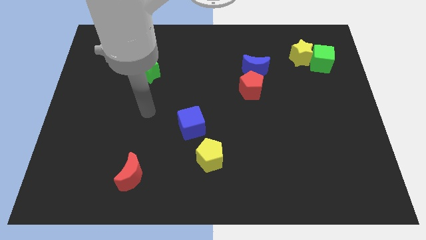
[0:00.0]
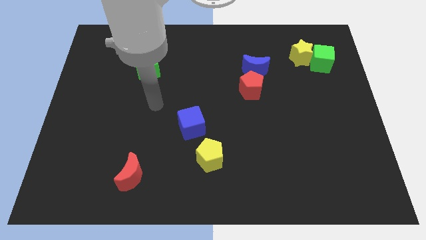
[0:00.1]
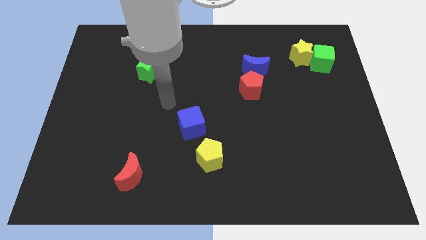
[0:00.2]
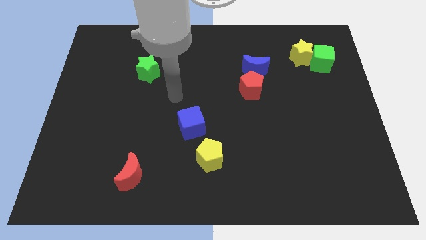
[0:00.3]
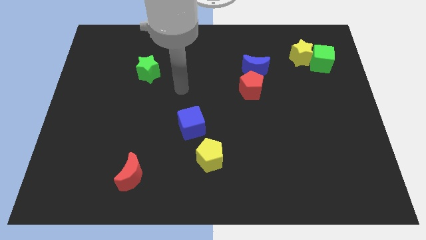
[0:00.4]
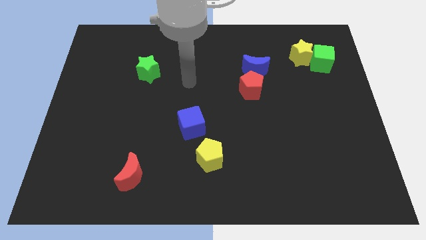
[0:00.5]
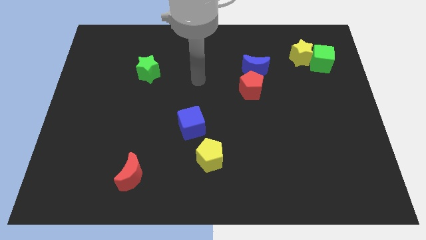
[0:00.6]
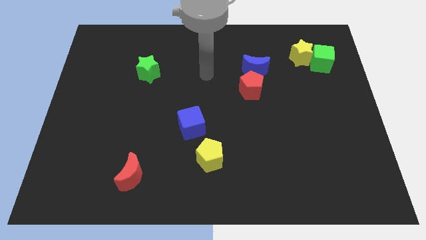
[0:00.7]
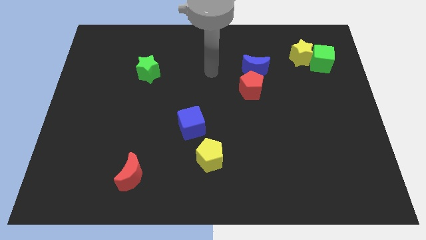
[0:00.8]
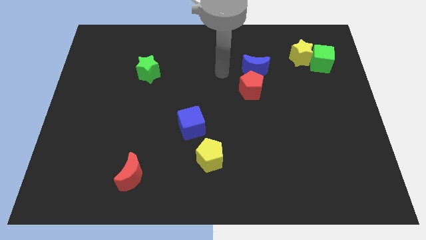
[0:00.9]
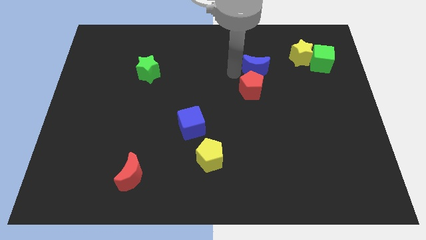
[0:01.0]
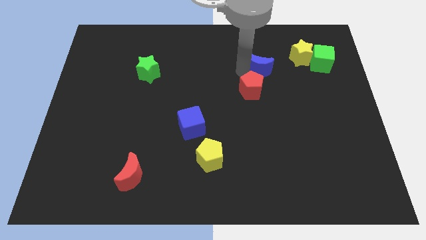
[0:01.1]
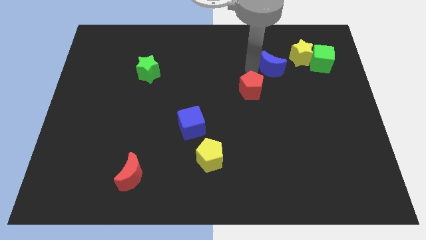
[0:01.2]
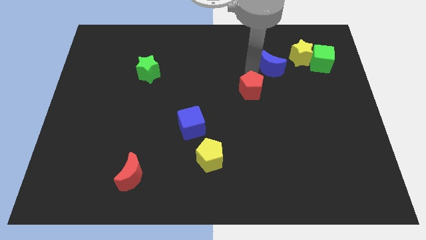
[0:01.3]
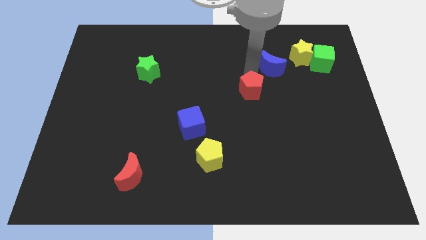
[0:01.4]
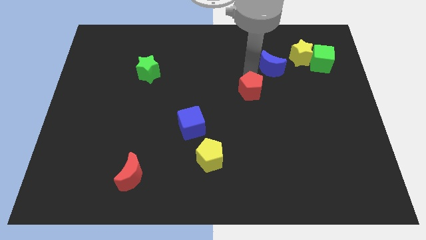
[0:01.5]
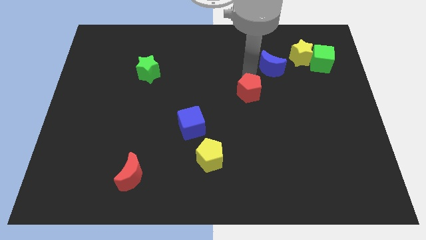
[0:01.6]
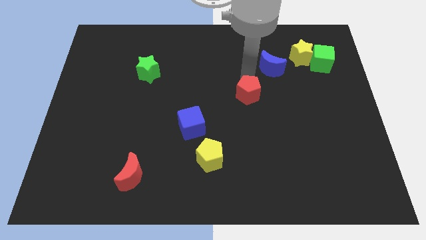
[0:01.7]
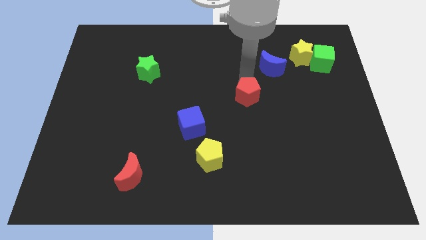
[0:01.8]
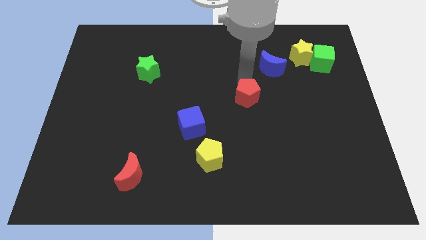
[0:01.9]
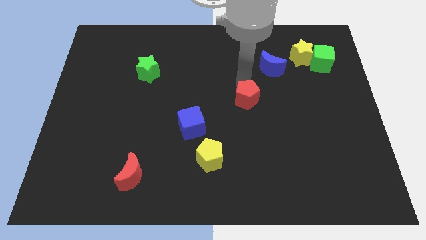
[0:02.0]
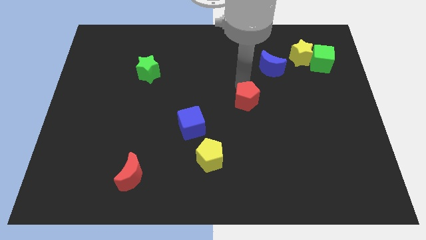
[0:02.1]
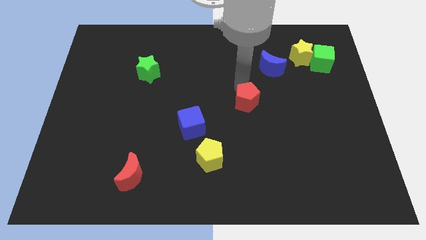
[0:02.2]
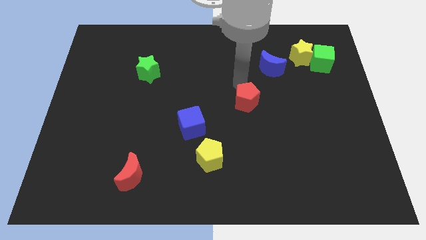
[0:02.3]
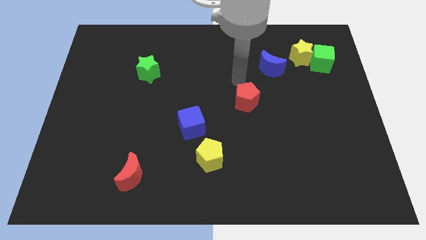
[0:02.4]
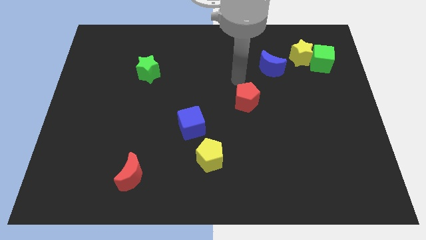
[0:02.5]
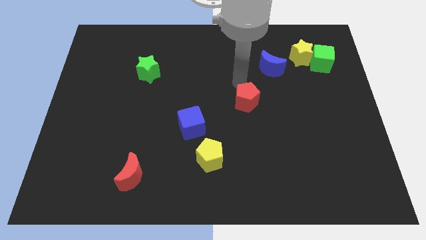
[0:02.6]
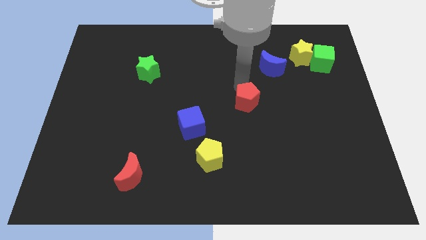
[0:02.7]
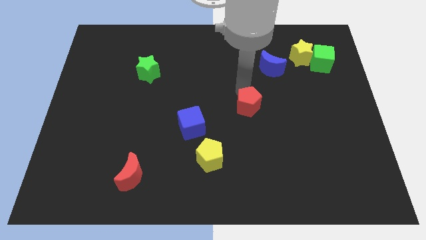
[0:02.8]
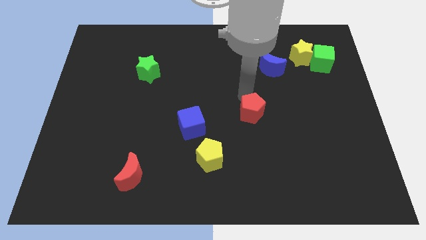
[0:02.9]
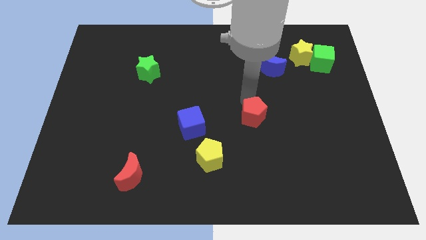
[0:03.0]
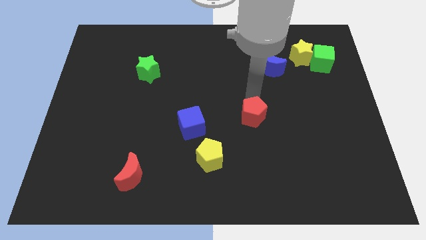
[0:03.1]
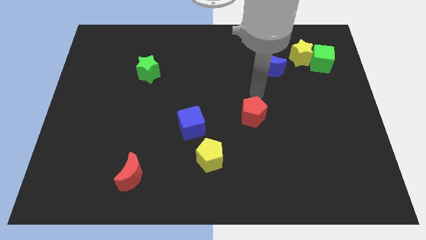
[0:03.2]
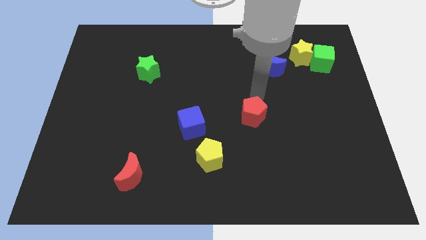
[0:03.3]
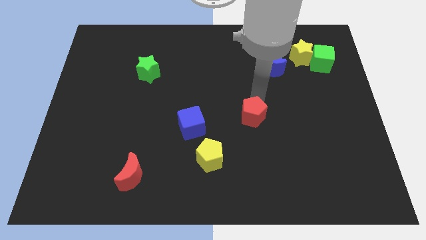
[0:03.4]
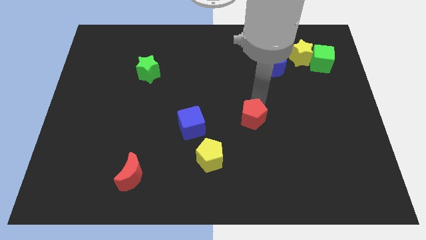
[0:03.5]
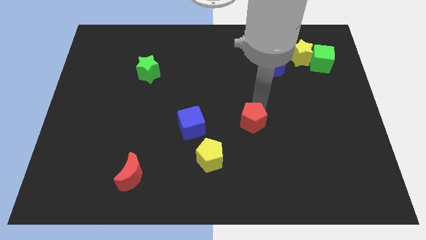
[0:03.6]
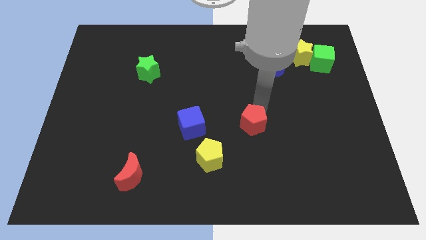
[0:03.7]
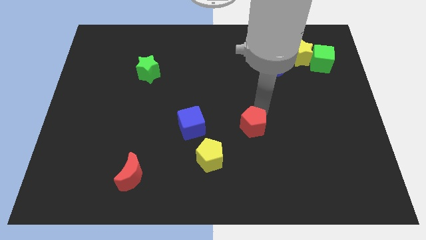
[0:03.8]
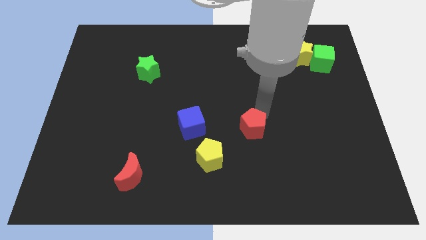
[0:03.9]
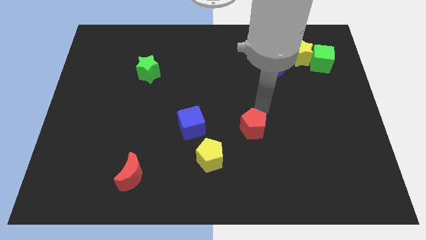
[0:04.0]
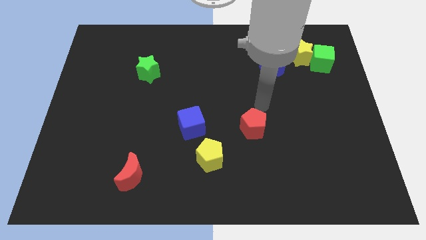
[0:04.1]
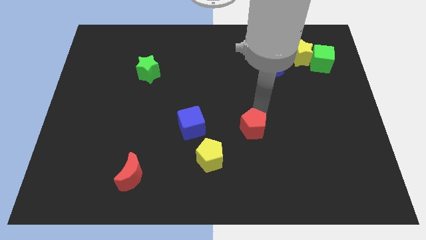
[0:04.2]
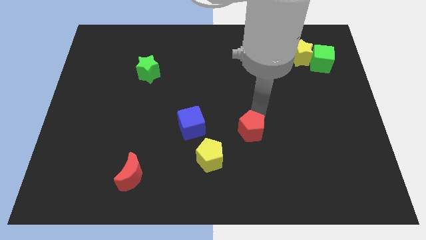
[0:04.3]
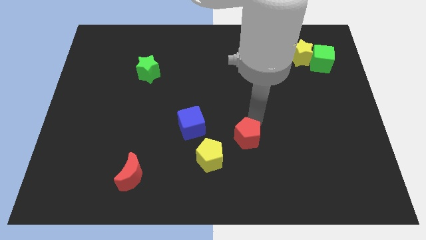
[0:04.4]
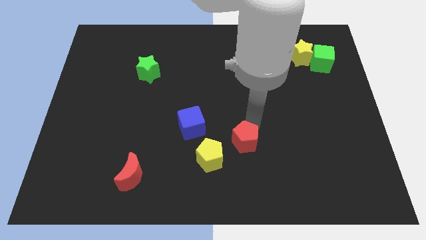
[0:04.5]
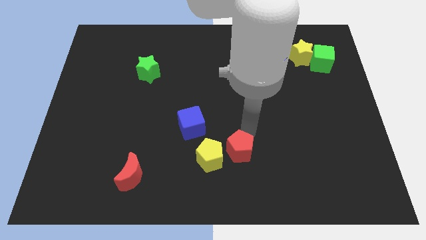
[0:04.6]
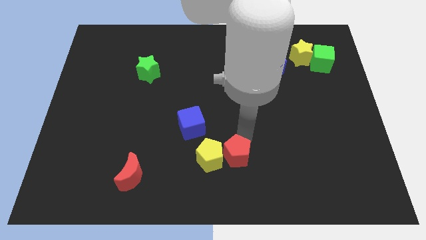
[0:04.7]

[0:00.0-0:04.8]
slide the red pentagon to the bottom right side of the yellow pentagon

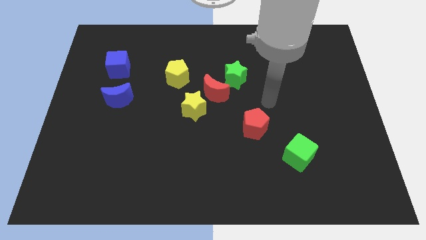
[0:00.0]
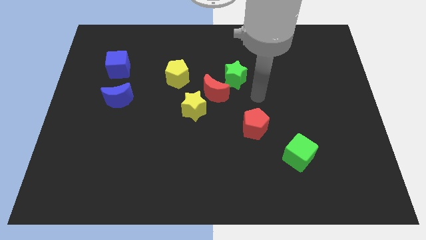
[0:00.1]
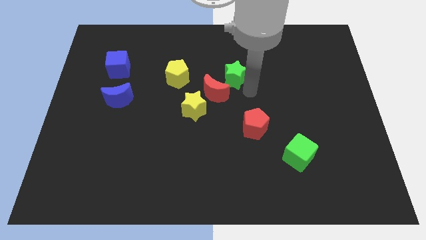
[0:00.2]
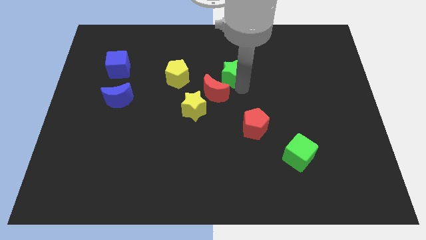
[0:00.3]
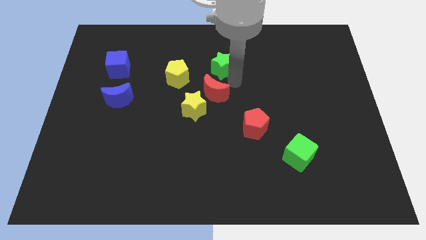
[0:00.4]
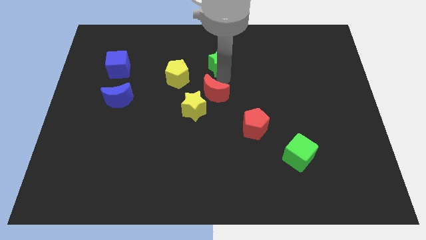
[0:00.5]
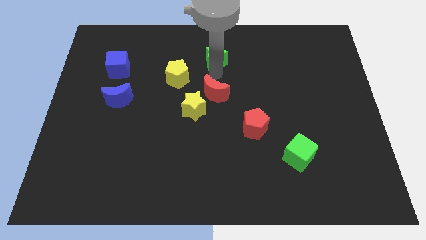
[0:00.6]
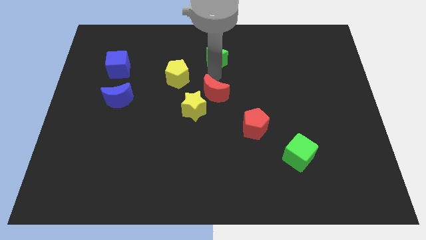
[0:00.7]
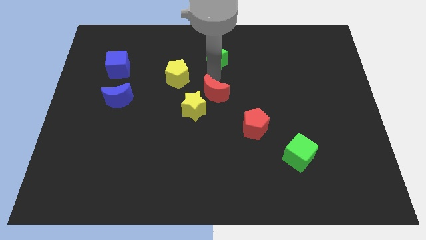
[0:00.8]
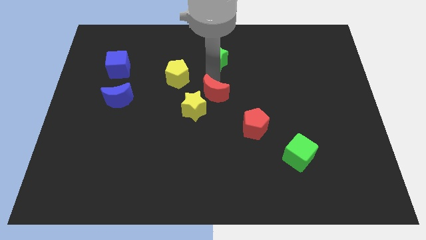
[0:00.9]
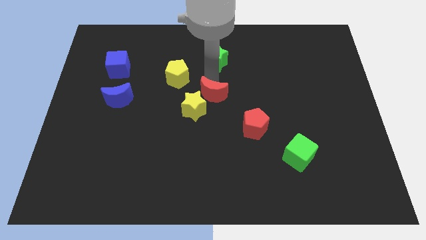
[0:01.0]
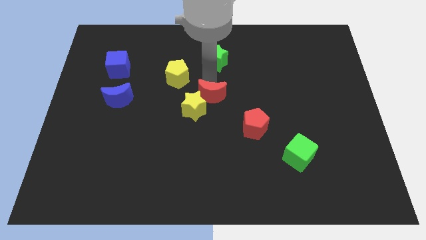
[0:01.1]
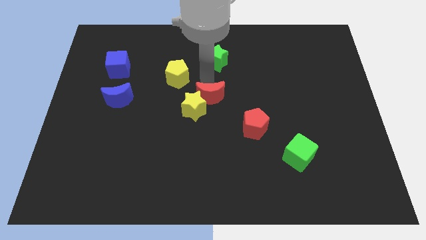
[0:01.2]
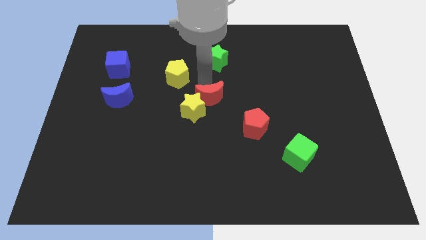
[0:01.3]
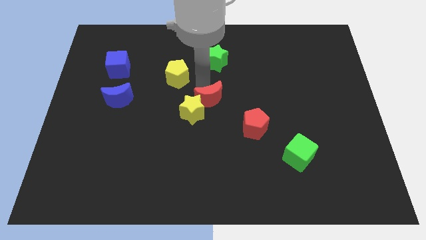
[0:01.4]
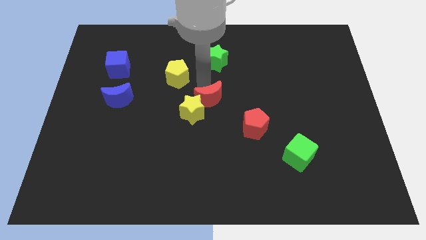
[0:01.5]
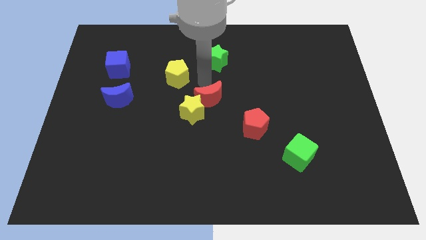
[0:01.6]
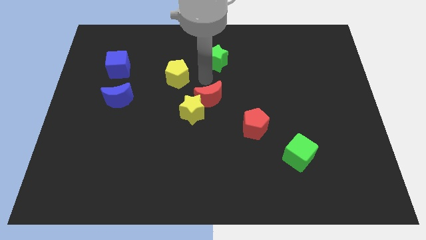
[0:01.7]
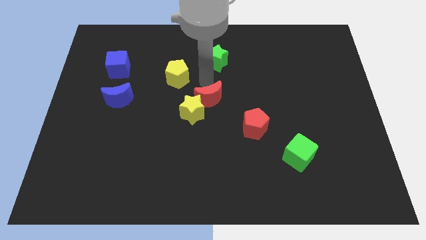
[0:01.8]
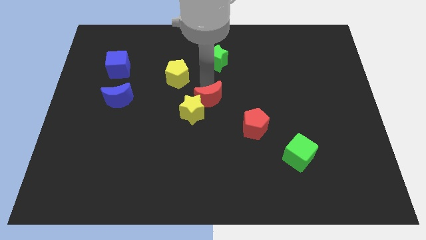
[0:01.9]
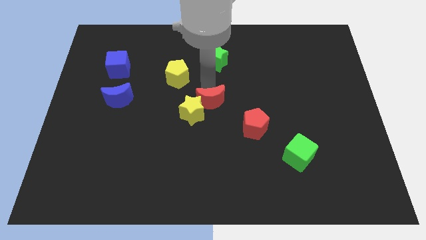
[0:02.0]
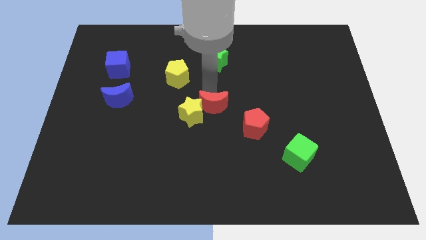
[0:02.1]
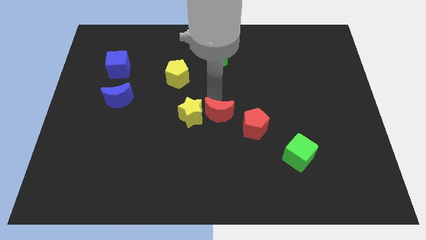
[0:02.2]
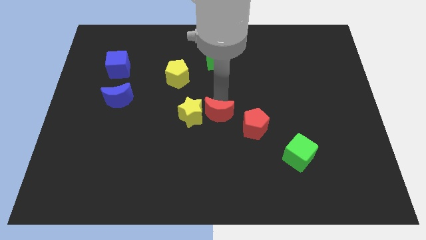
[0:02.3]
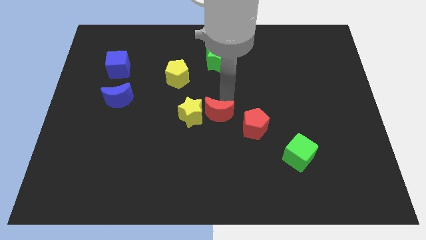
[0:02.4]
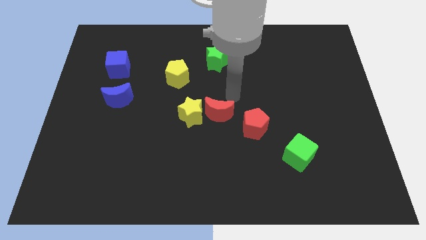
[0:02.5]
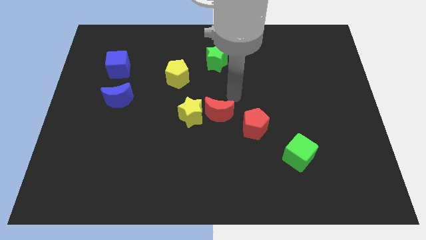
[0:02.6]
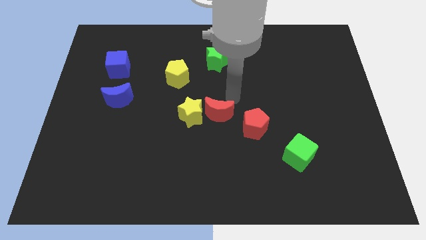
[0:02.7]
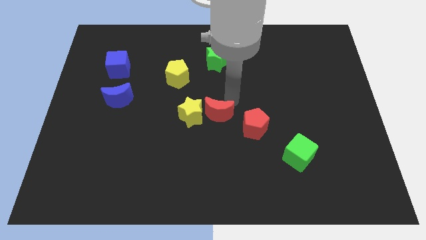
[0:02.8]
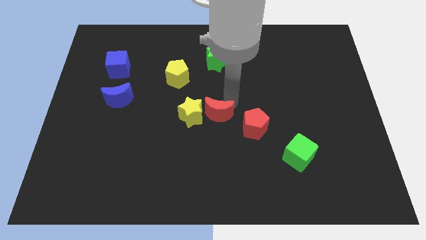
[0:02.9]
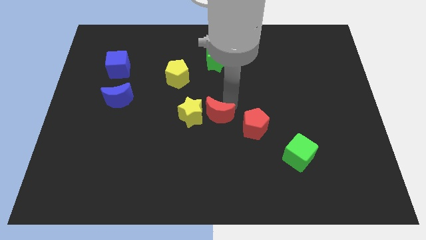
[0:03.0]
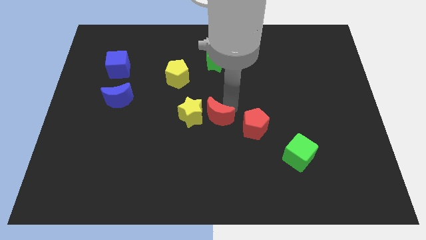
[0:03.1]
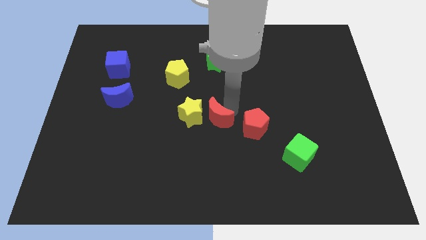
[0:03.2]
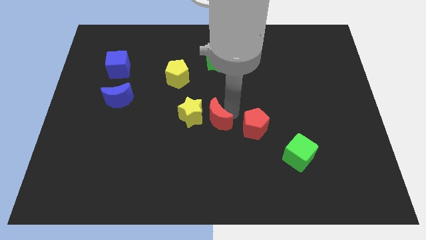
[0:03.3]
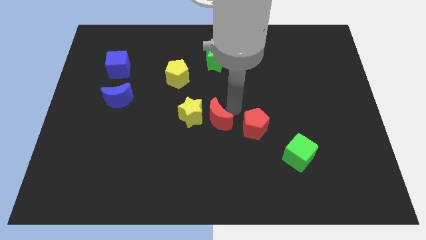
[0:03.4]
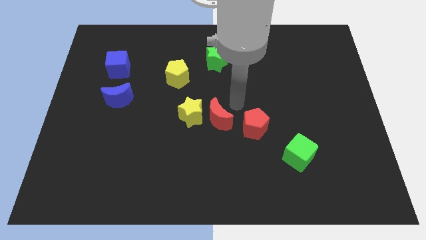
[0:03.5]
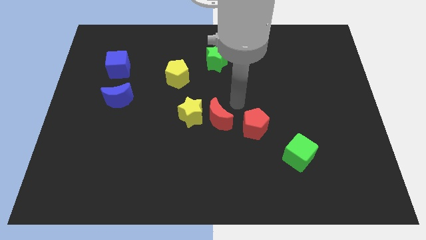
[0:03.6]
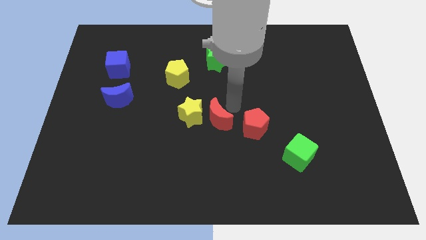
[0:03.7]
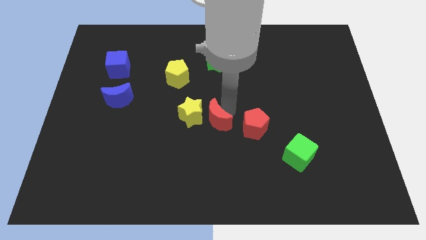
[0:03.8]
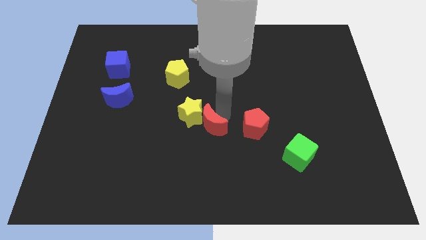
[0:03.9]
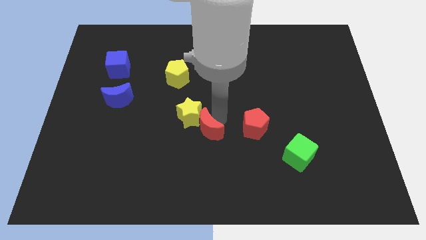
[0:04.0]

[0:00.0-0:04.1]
move the red moon below the yellow star
